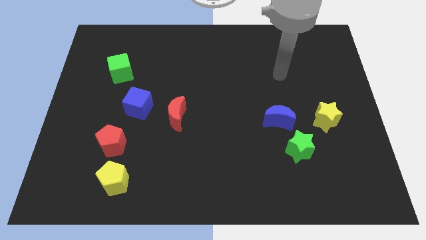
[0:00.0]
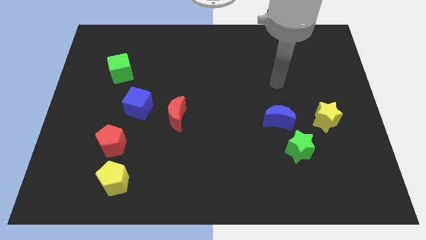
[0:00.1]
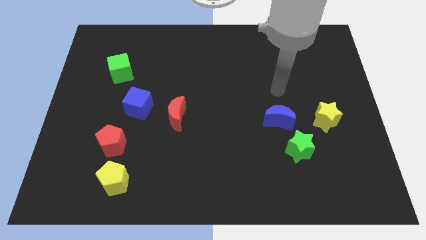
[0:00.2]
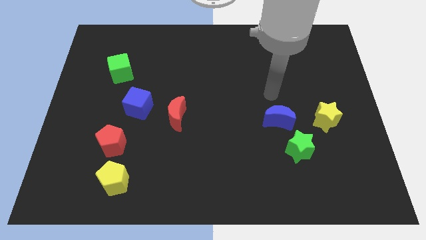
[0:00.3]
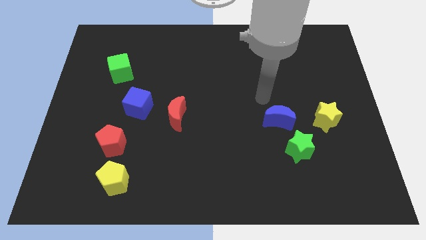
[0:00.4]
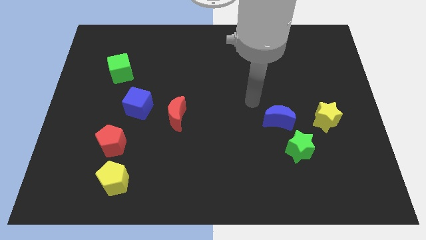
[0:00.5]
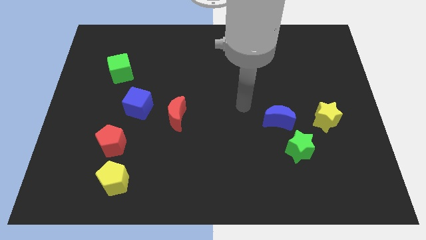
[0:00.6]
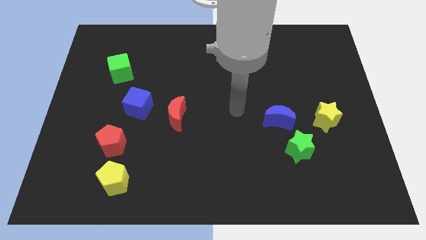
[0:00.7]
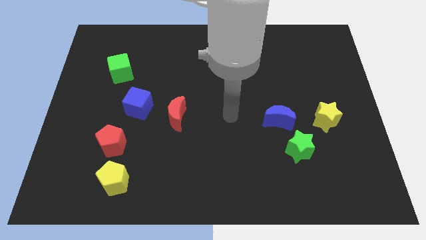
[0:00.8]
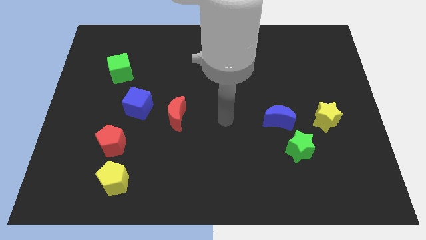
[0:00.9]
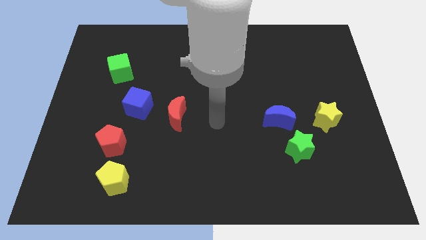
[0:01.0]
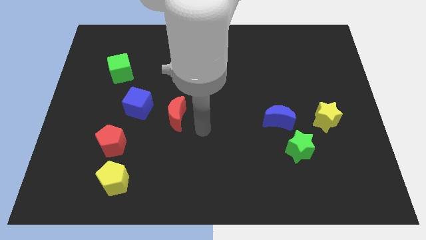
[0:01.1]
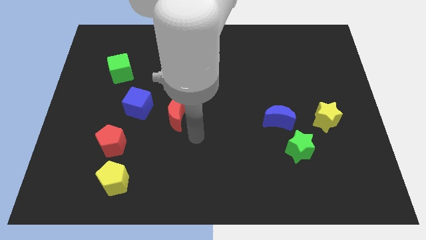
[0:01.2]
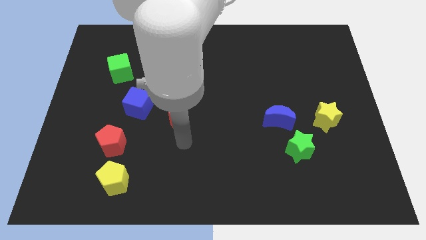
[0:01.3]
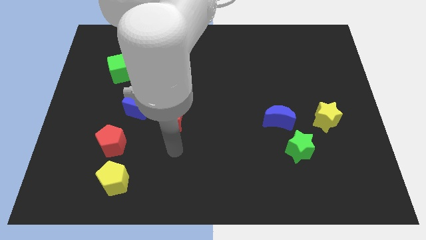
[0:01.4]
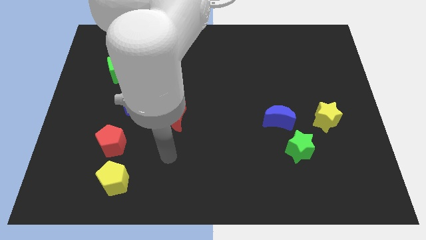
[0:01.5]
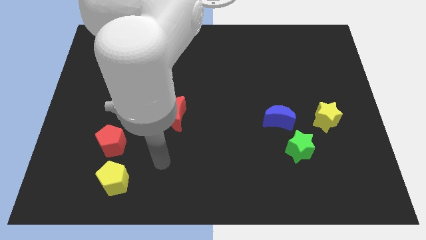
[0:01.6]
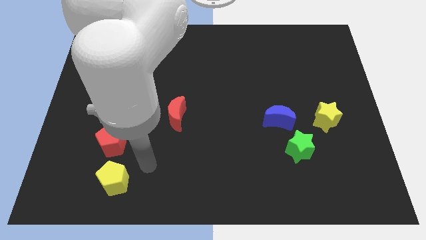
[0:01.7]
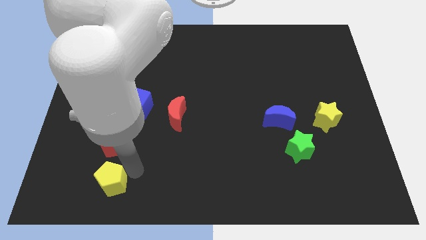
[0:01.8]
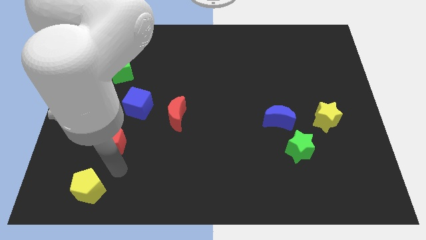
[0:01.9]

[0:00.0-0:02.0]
move the red pentagon away from the yellow pentagon

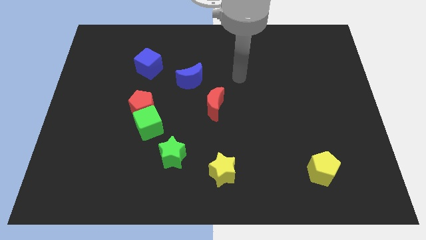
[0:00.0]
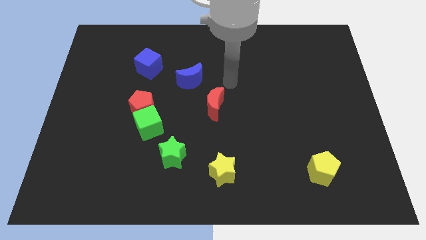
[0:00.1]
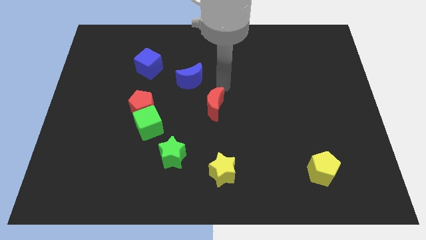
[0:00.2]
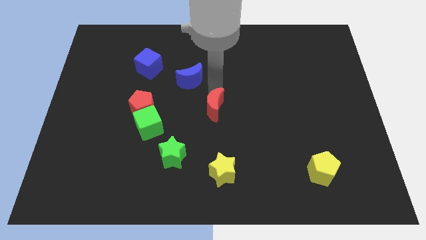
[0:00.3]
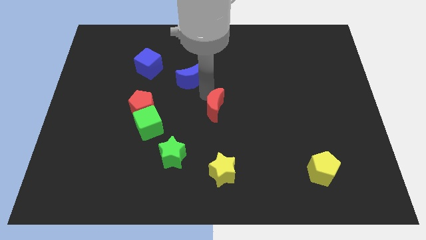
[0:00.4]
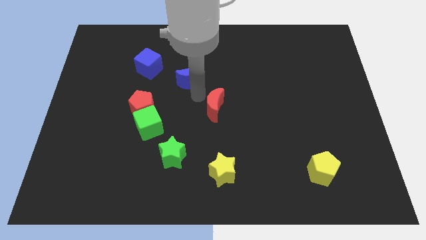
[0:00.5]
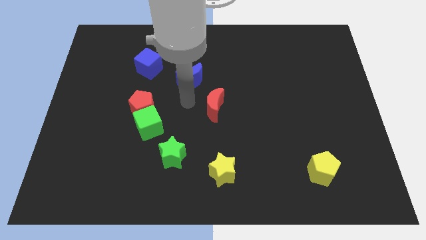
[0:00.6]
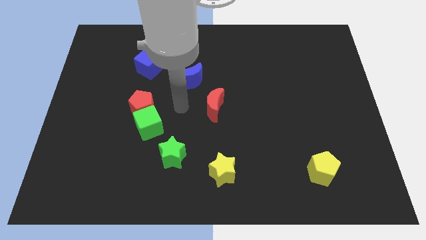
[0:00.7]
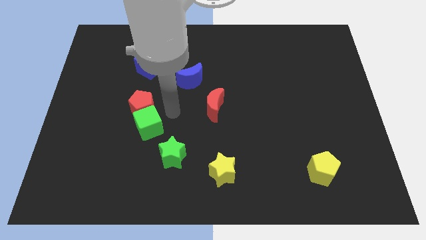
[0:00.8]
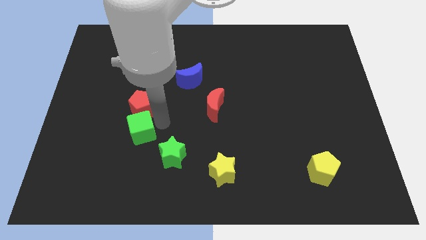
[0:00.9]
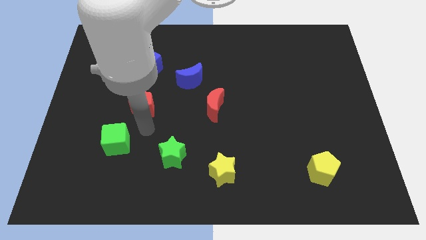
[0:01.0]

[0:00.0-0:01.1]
pull the red pentagon apart from the green cube

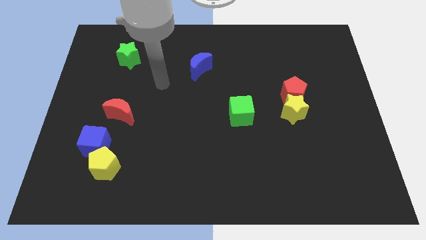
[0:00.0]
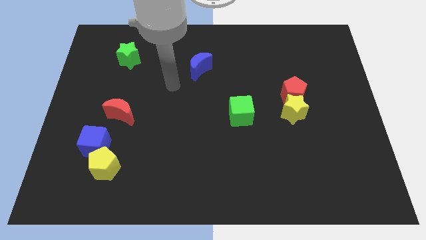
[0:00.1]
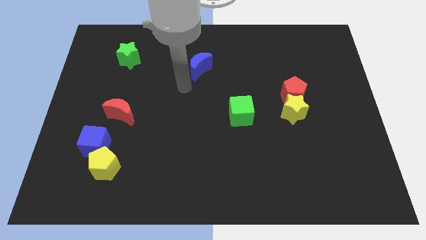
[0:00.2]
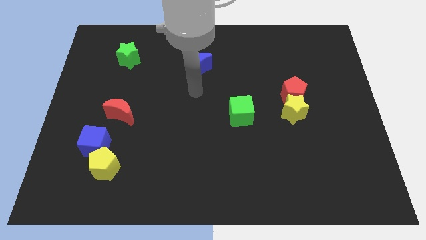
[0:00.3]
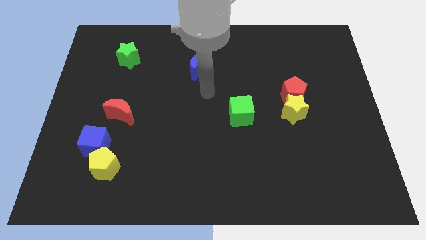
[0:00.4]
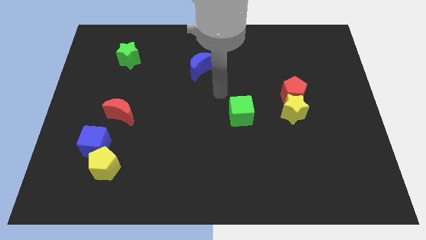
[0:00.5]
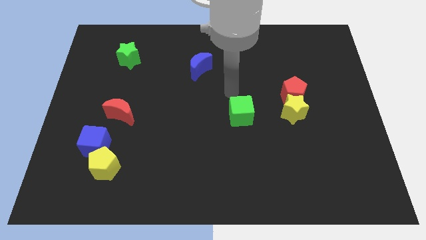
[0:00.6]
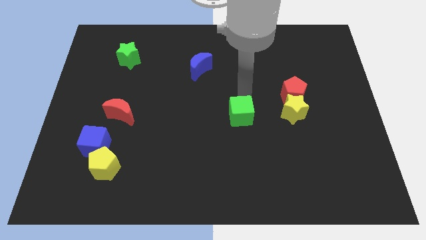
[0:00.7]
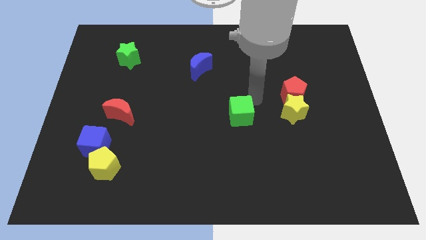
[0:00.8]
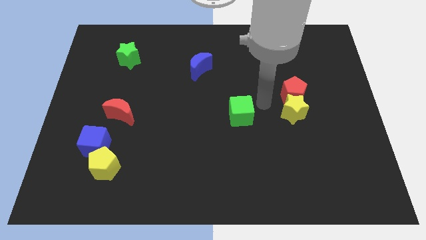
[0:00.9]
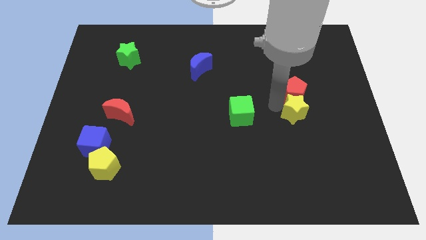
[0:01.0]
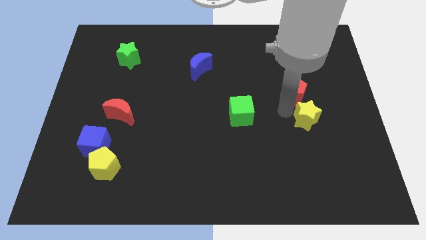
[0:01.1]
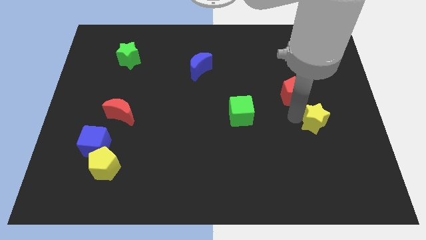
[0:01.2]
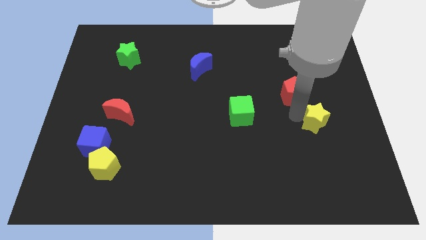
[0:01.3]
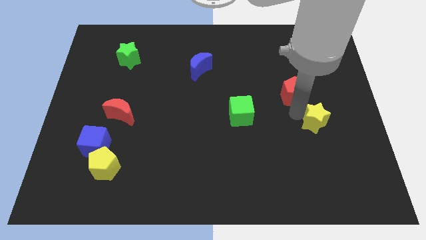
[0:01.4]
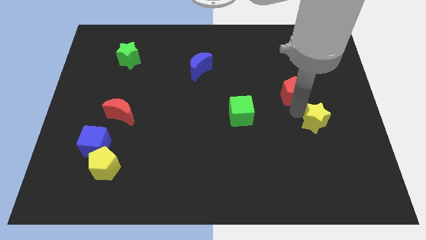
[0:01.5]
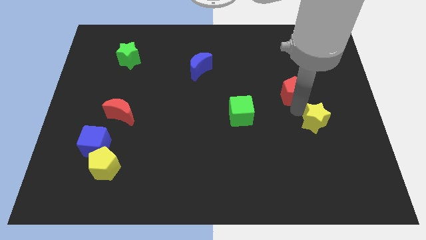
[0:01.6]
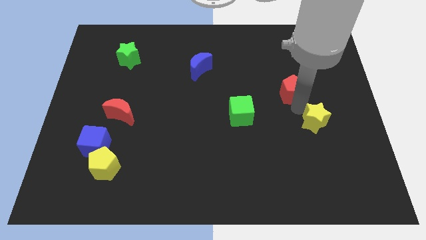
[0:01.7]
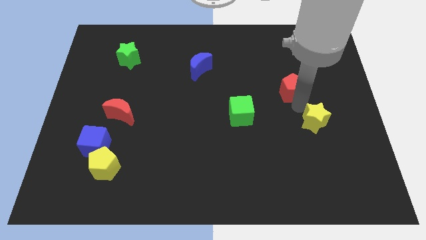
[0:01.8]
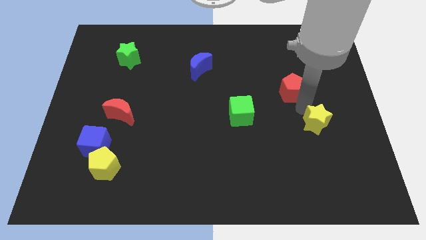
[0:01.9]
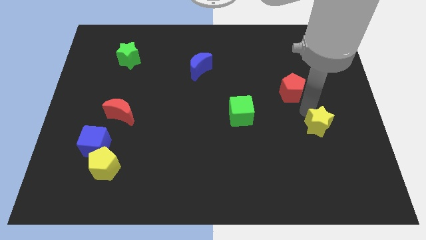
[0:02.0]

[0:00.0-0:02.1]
separate the red pentagon from the yellow star

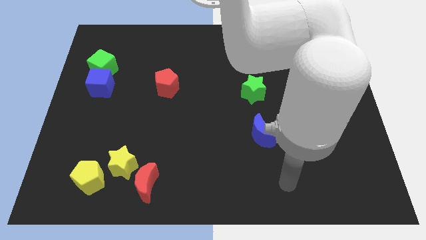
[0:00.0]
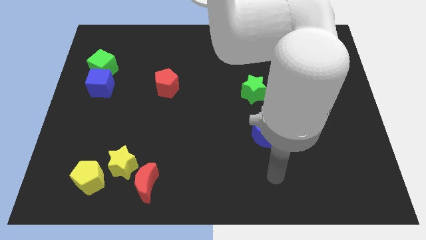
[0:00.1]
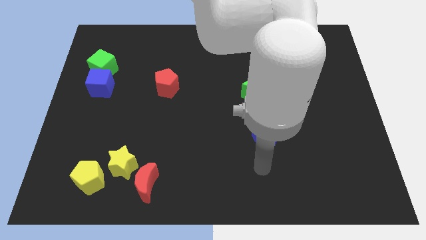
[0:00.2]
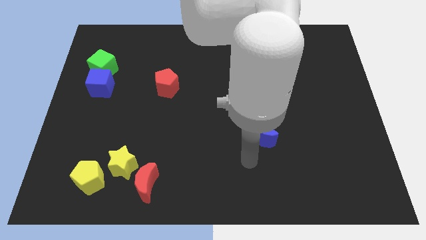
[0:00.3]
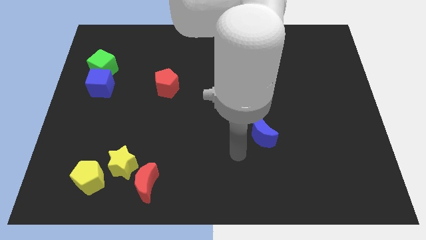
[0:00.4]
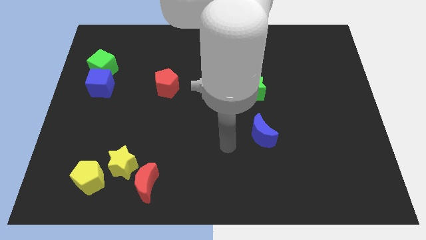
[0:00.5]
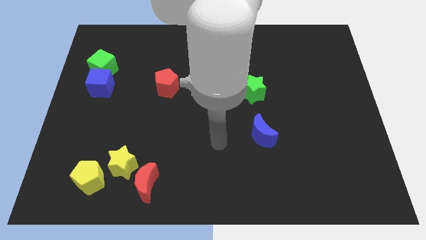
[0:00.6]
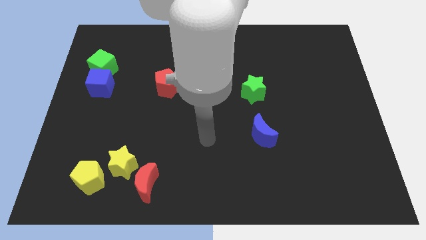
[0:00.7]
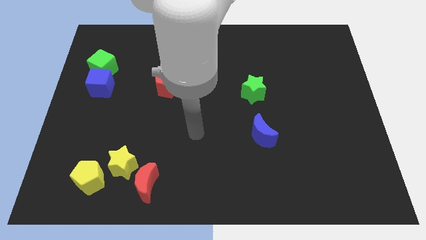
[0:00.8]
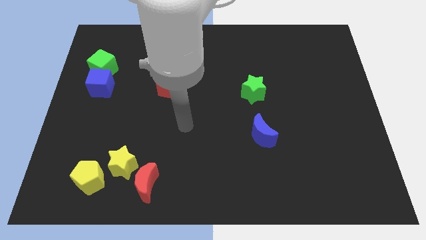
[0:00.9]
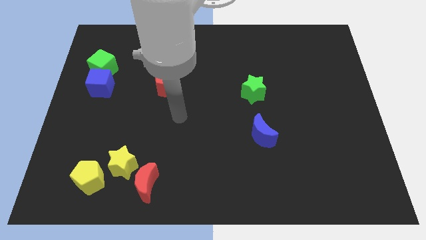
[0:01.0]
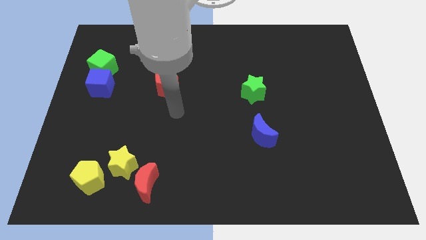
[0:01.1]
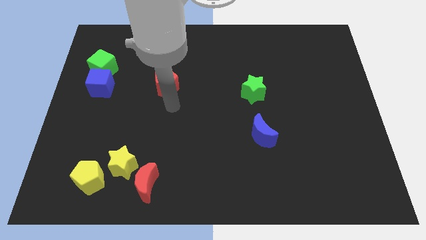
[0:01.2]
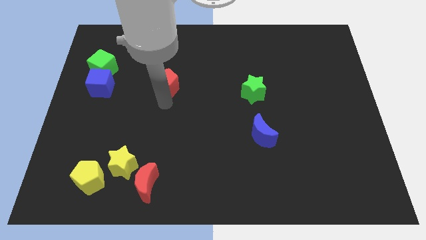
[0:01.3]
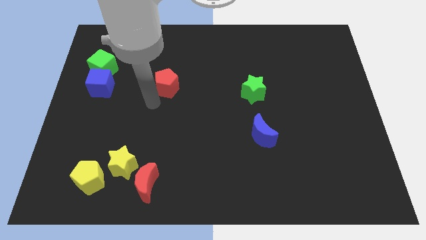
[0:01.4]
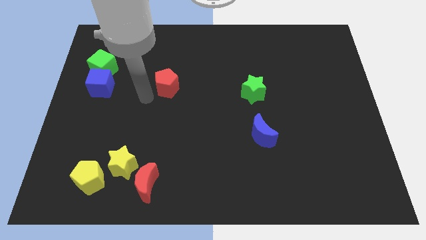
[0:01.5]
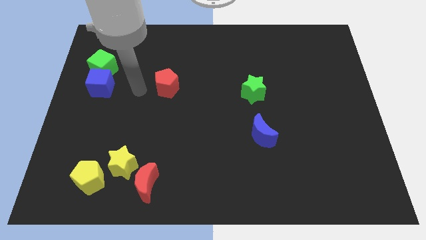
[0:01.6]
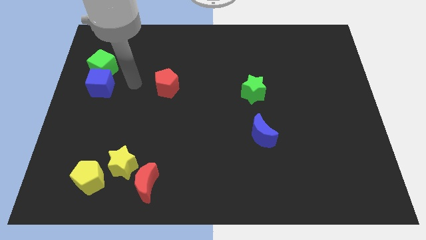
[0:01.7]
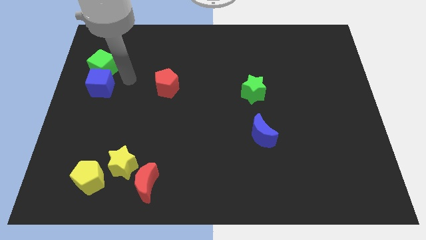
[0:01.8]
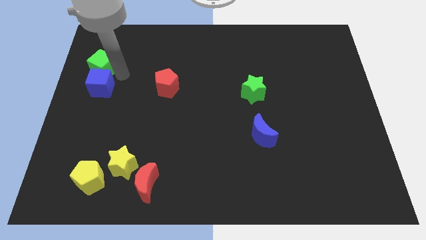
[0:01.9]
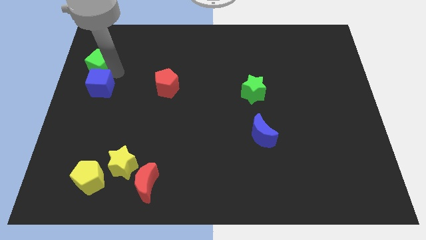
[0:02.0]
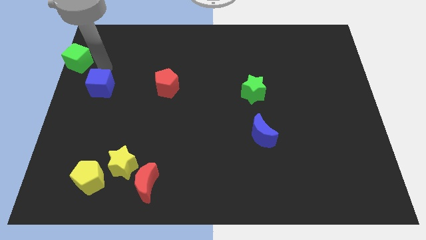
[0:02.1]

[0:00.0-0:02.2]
move the blue cube away from the green cube

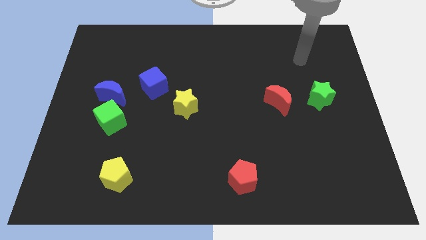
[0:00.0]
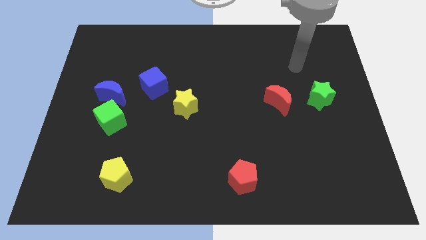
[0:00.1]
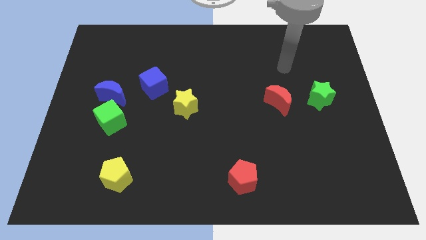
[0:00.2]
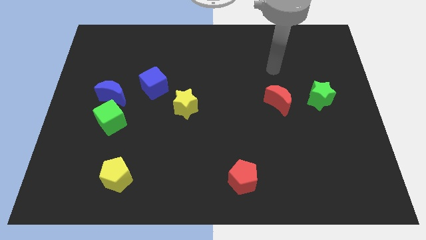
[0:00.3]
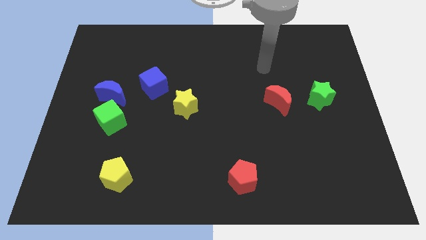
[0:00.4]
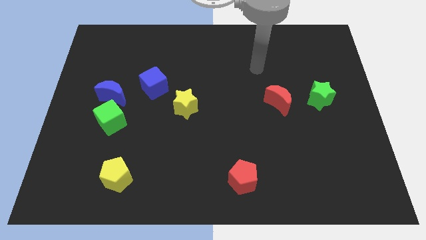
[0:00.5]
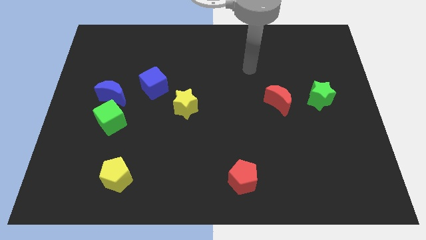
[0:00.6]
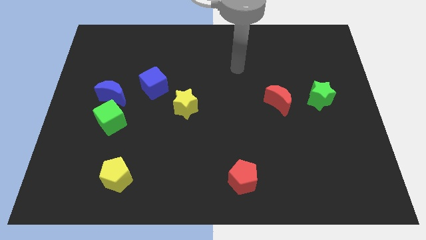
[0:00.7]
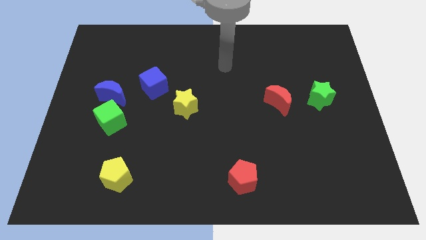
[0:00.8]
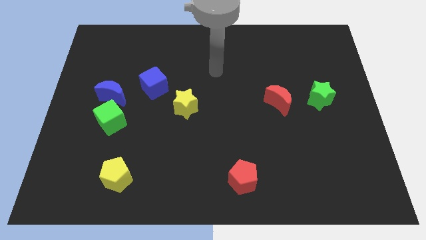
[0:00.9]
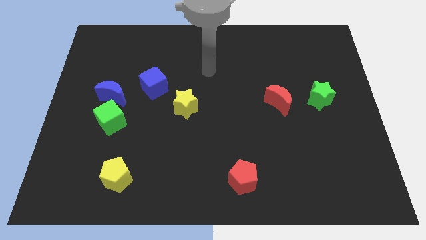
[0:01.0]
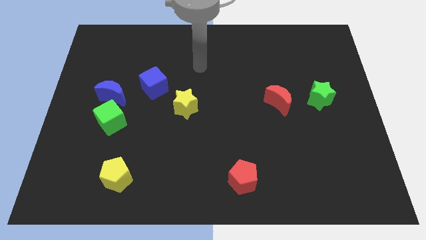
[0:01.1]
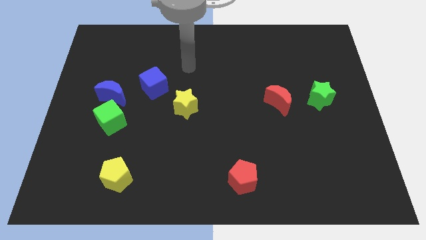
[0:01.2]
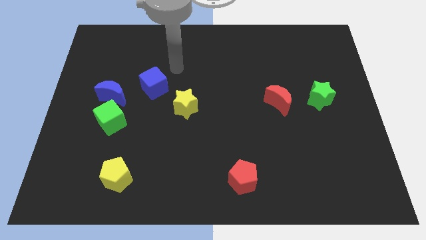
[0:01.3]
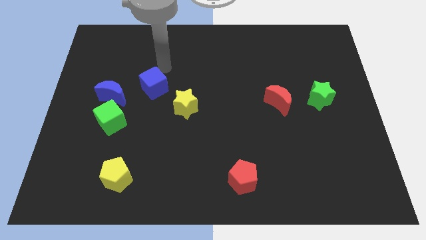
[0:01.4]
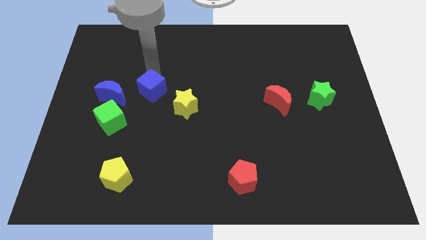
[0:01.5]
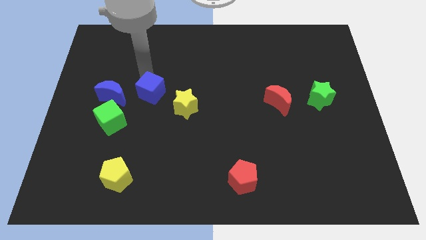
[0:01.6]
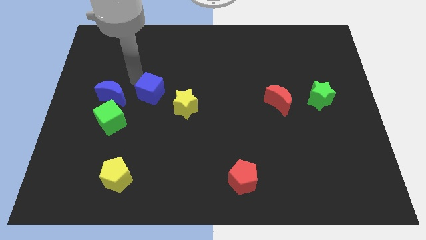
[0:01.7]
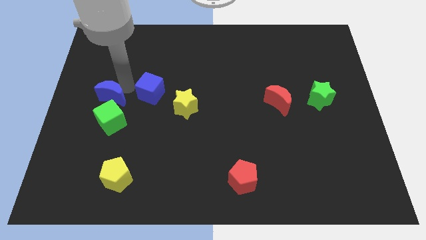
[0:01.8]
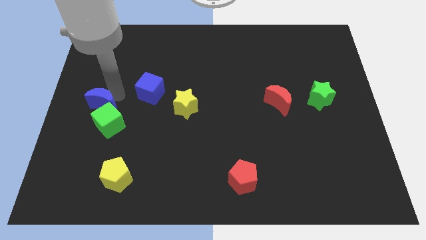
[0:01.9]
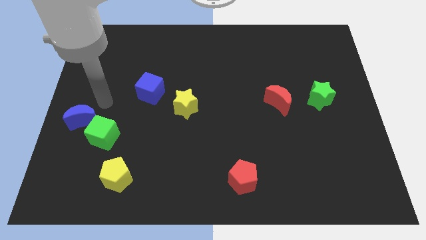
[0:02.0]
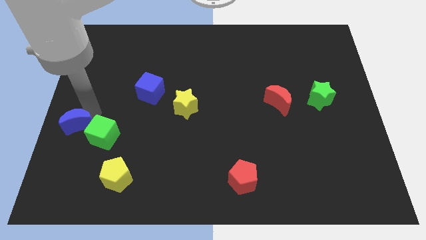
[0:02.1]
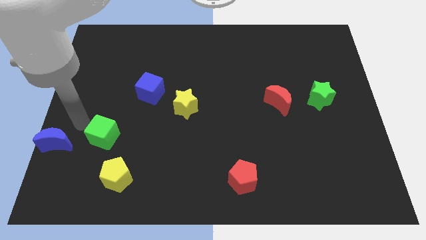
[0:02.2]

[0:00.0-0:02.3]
pull the green cube apart from the blue moon
